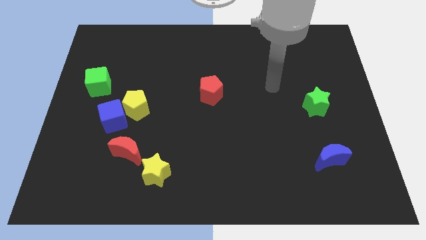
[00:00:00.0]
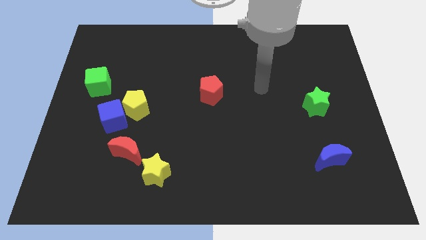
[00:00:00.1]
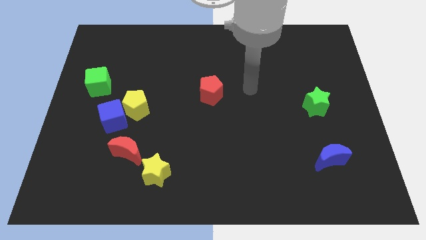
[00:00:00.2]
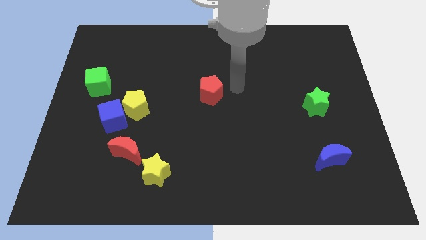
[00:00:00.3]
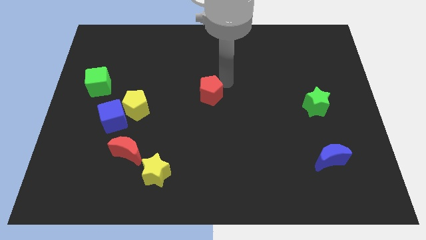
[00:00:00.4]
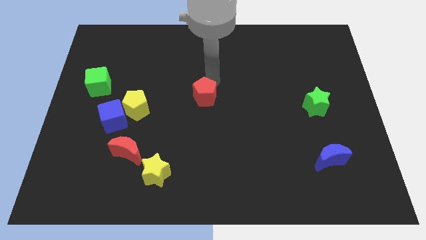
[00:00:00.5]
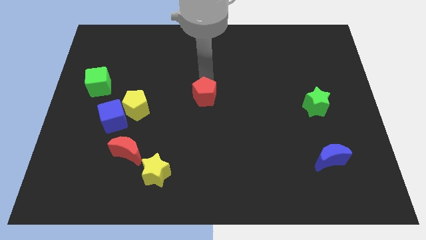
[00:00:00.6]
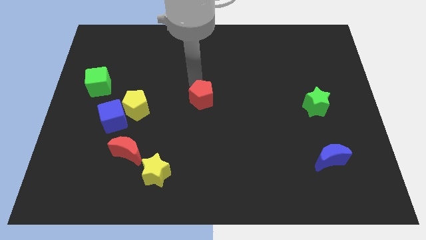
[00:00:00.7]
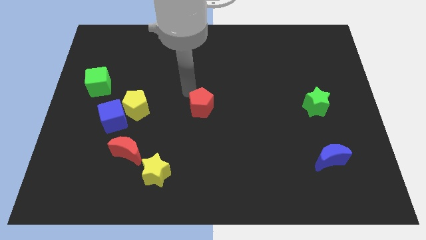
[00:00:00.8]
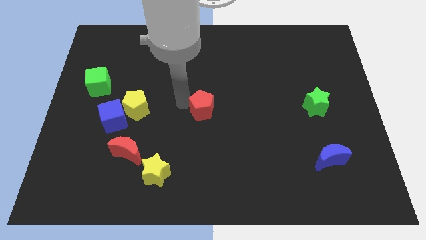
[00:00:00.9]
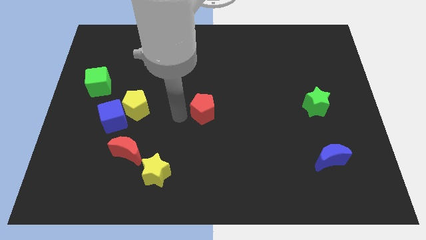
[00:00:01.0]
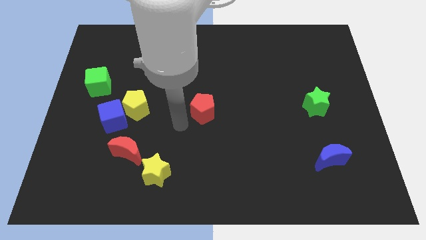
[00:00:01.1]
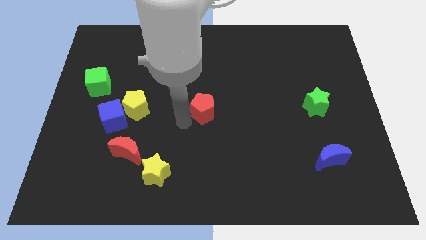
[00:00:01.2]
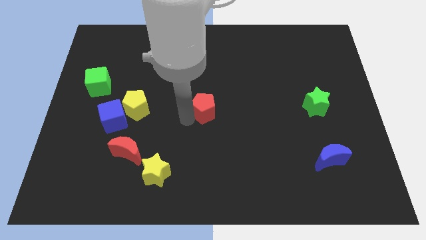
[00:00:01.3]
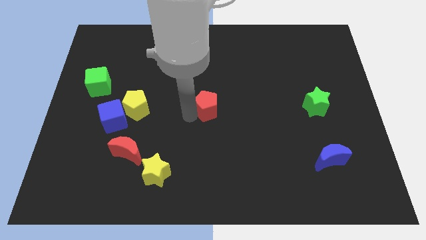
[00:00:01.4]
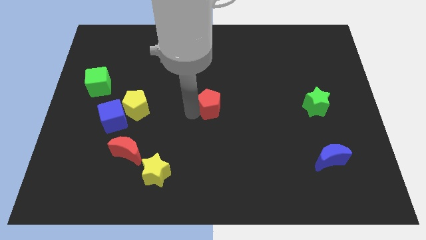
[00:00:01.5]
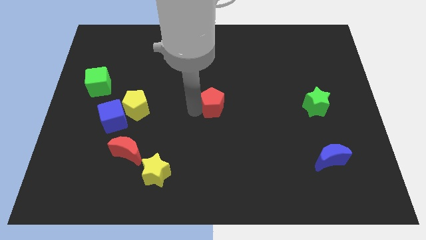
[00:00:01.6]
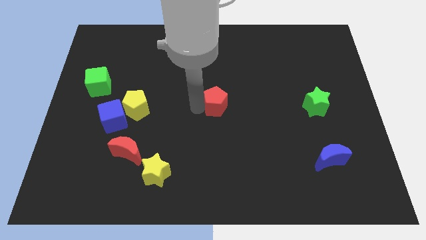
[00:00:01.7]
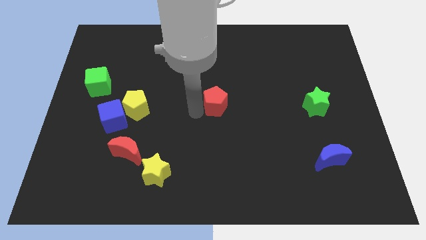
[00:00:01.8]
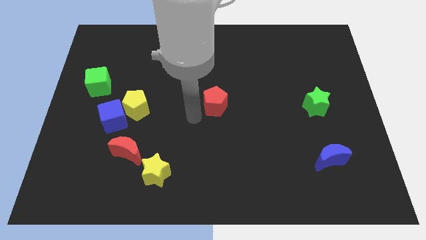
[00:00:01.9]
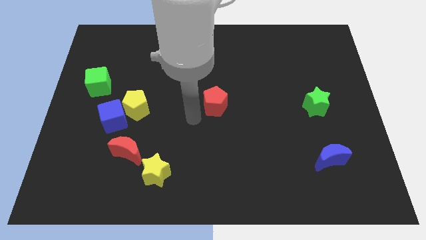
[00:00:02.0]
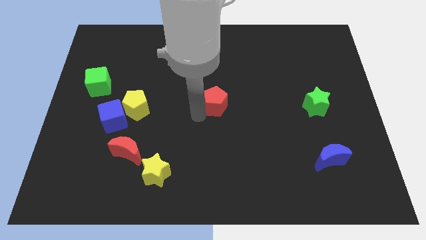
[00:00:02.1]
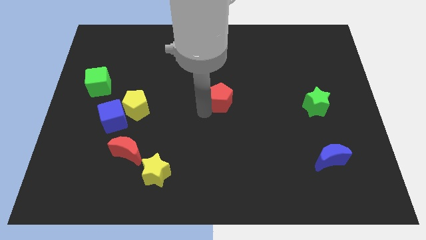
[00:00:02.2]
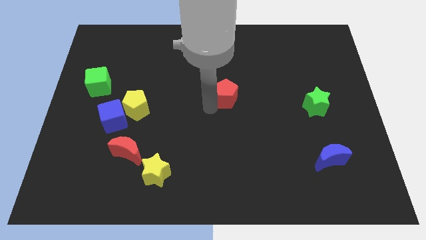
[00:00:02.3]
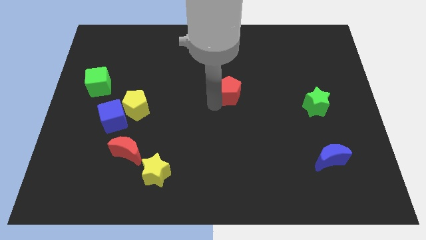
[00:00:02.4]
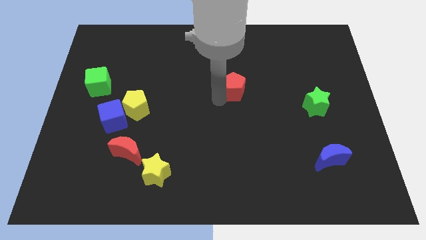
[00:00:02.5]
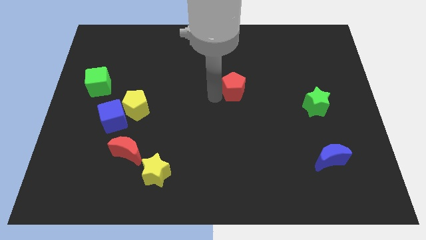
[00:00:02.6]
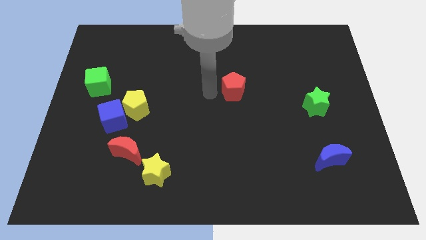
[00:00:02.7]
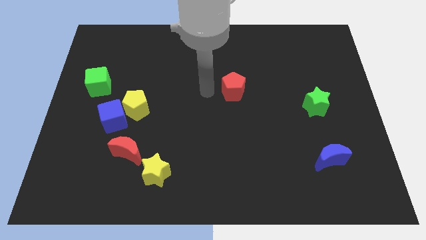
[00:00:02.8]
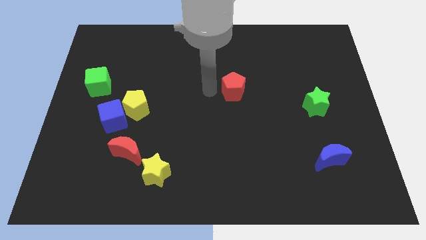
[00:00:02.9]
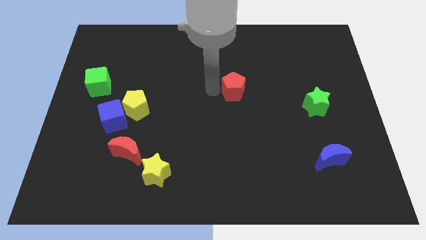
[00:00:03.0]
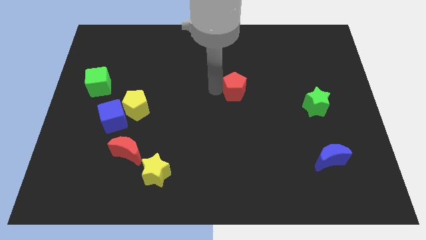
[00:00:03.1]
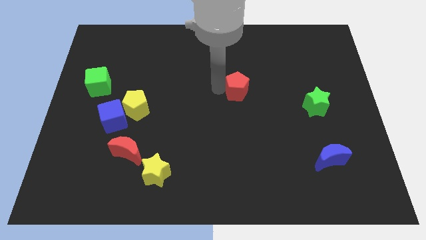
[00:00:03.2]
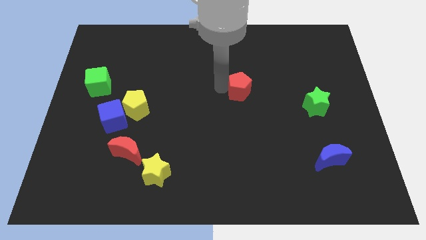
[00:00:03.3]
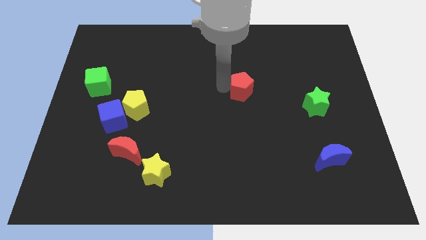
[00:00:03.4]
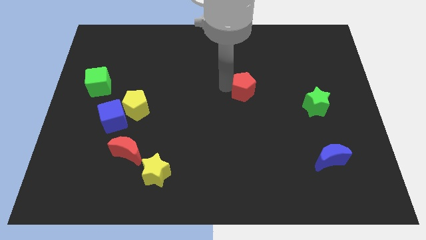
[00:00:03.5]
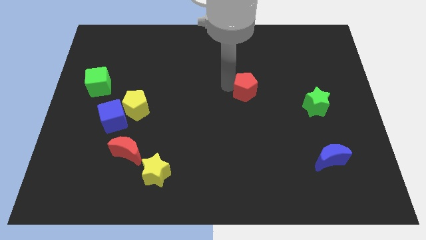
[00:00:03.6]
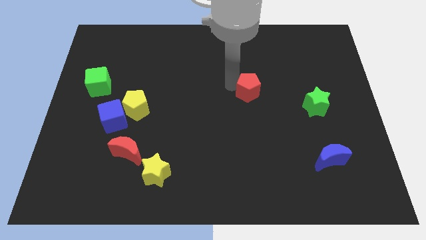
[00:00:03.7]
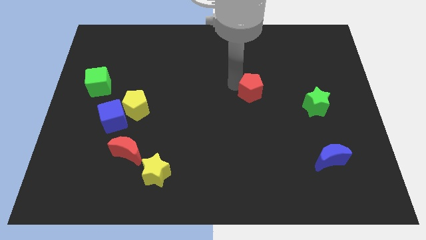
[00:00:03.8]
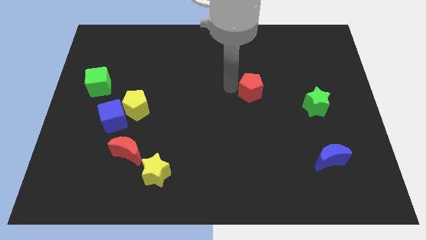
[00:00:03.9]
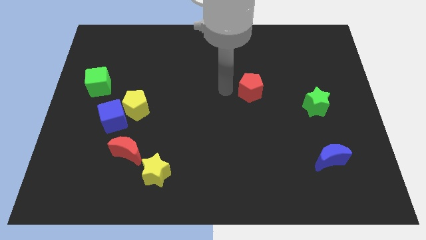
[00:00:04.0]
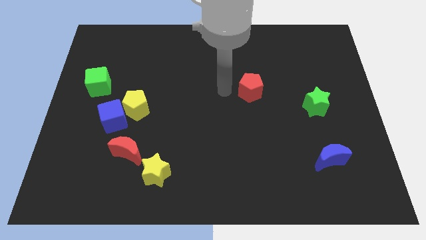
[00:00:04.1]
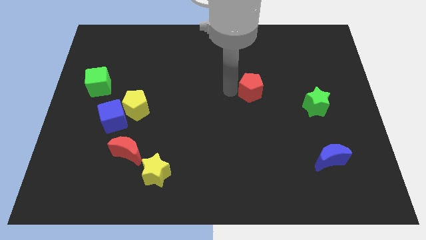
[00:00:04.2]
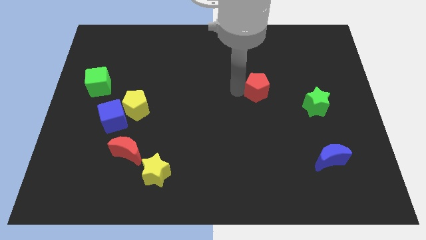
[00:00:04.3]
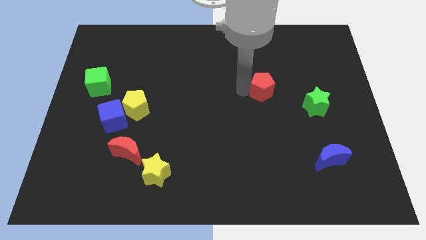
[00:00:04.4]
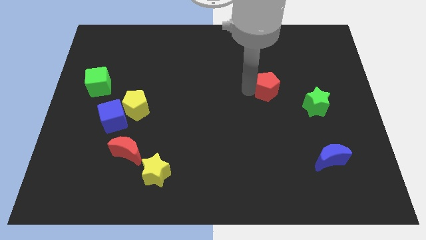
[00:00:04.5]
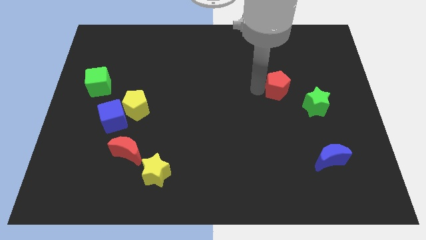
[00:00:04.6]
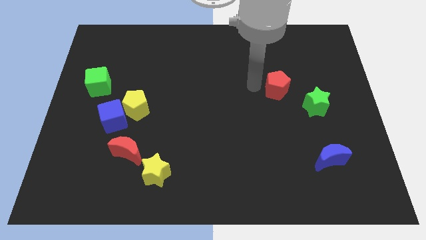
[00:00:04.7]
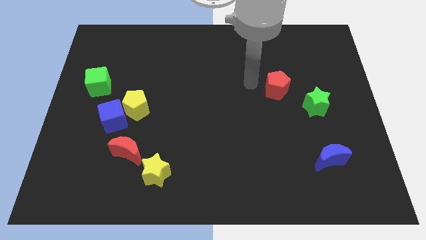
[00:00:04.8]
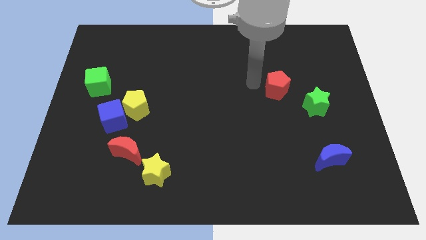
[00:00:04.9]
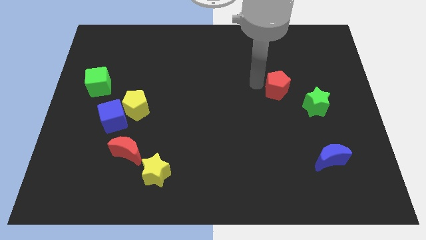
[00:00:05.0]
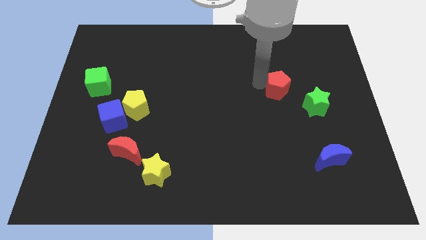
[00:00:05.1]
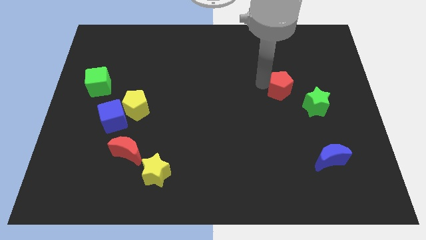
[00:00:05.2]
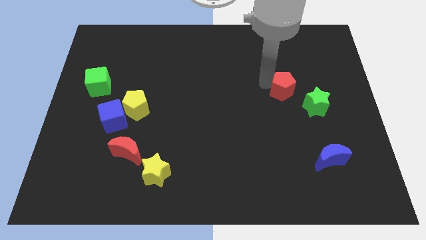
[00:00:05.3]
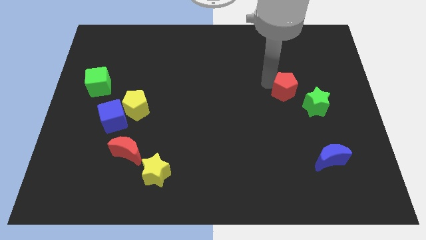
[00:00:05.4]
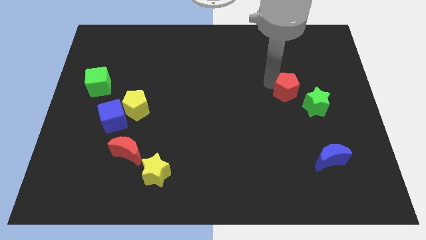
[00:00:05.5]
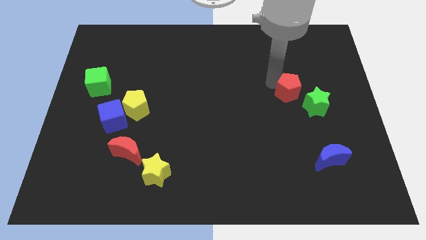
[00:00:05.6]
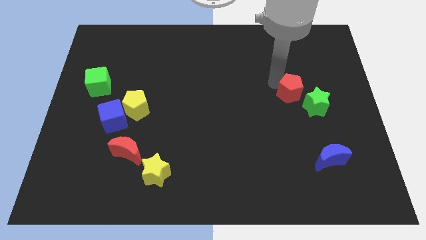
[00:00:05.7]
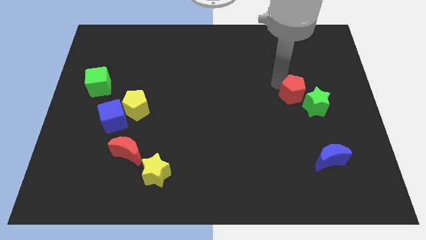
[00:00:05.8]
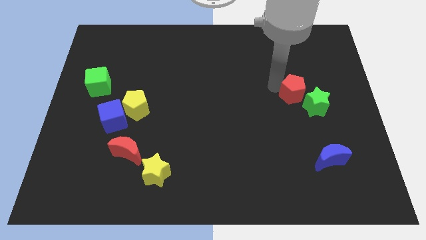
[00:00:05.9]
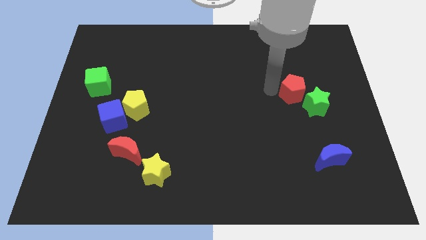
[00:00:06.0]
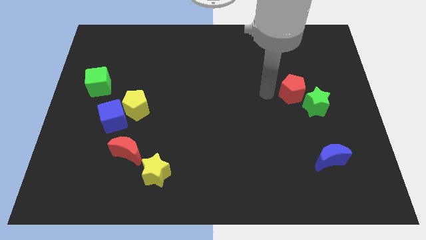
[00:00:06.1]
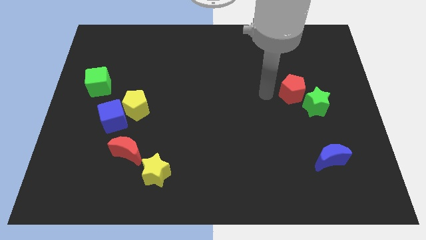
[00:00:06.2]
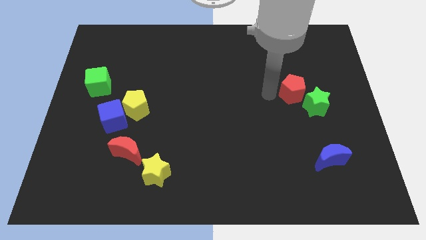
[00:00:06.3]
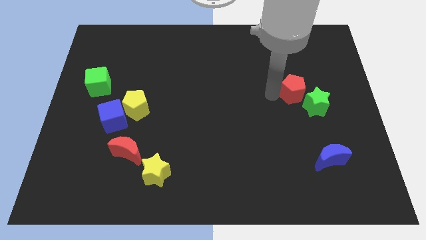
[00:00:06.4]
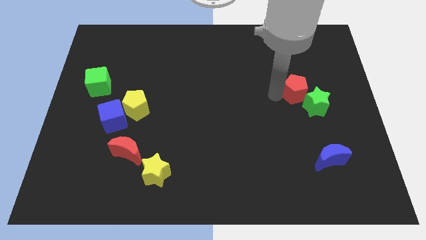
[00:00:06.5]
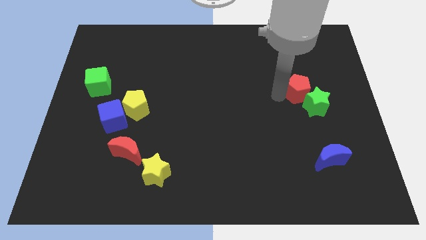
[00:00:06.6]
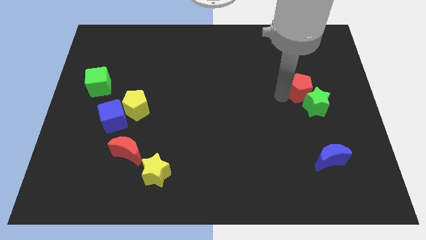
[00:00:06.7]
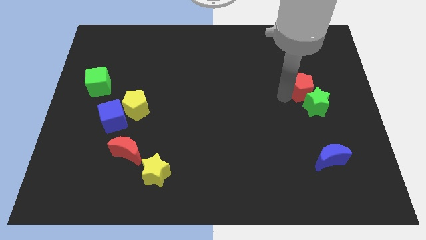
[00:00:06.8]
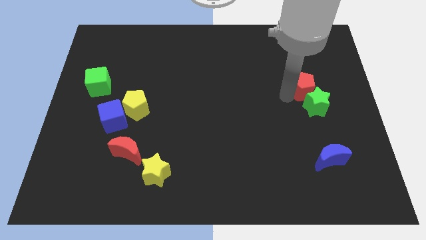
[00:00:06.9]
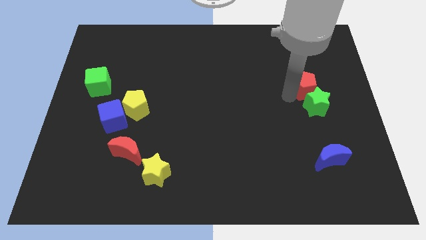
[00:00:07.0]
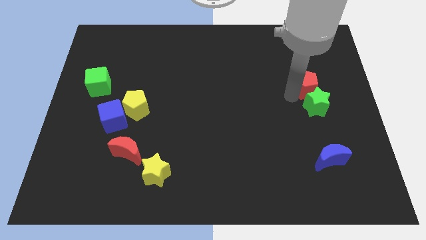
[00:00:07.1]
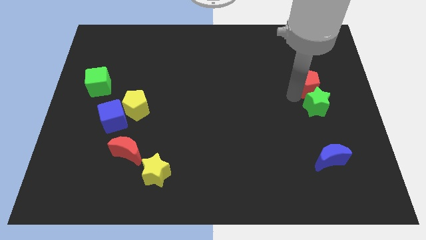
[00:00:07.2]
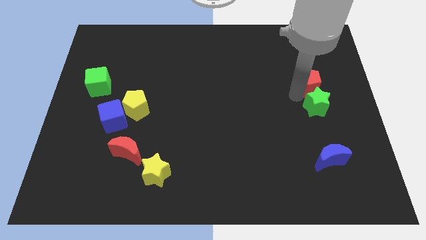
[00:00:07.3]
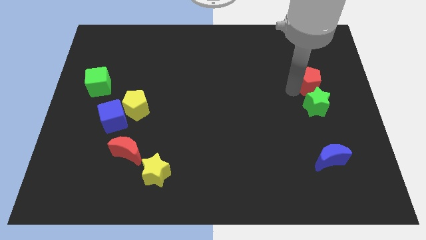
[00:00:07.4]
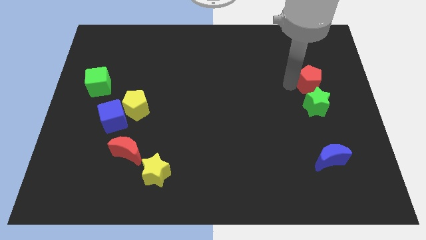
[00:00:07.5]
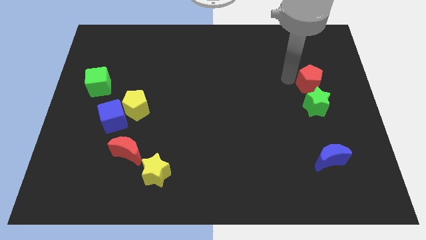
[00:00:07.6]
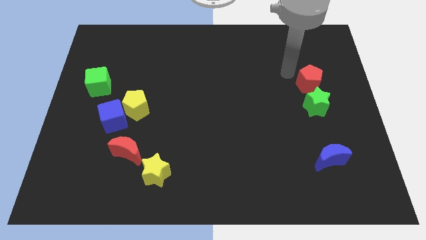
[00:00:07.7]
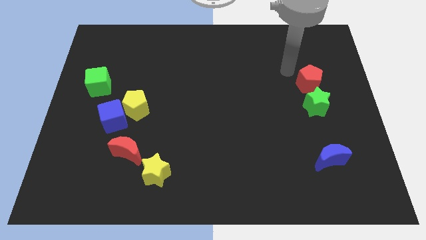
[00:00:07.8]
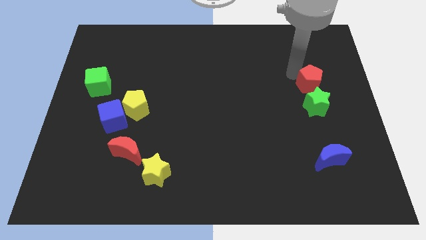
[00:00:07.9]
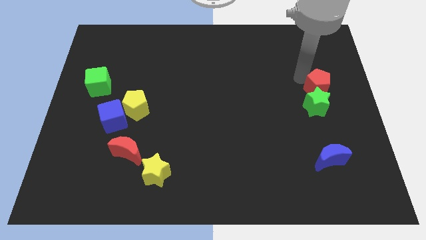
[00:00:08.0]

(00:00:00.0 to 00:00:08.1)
slide the red pentagon to the right side
